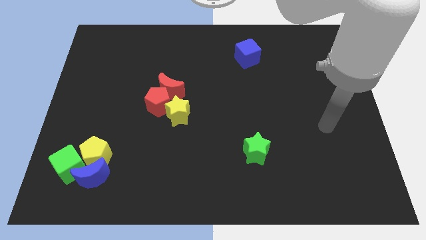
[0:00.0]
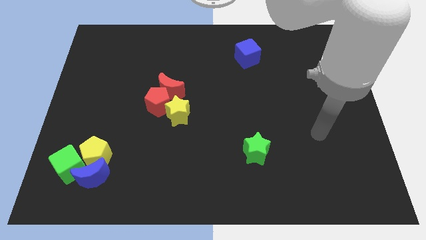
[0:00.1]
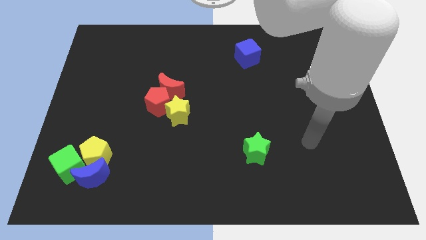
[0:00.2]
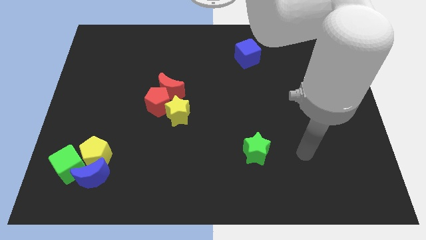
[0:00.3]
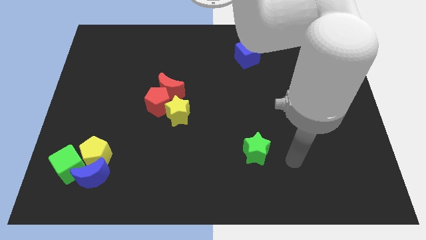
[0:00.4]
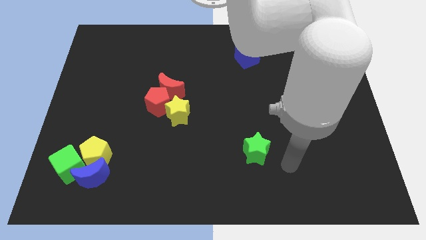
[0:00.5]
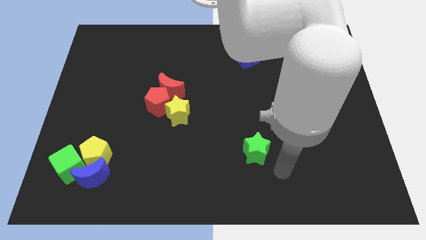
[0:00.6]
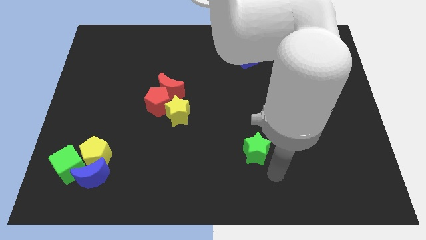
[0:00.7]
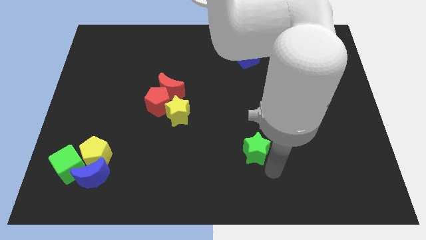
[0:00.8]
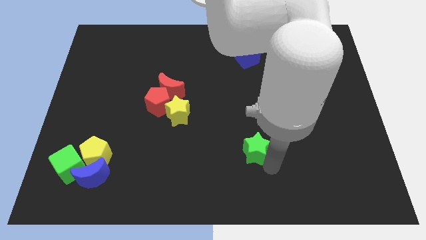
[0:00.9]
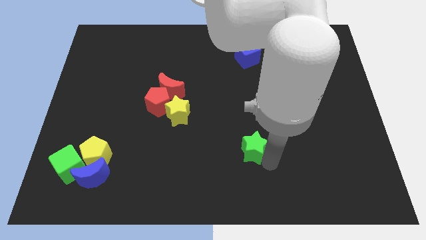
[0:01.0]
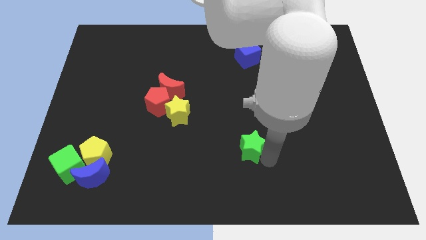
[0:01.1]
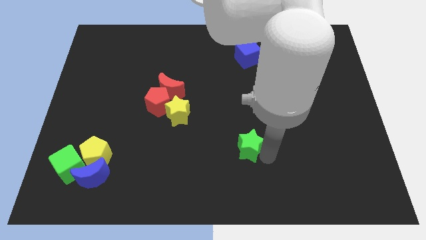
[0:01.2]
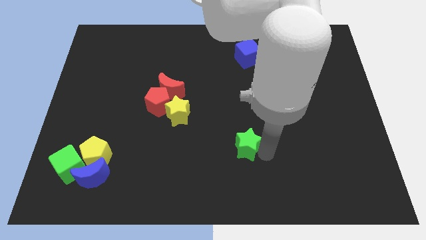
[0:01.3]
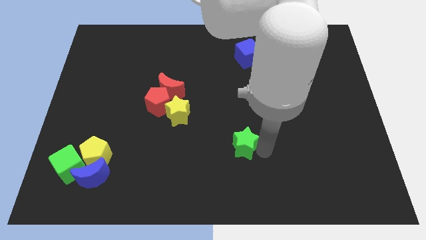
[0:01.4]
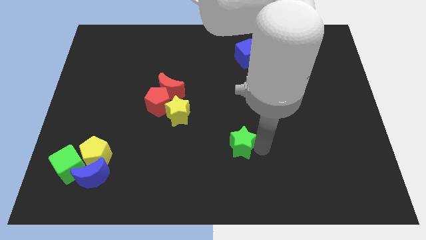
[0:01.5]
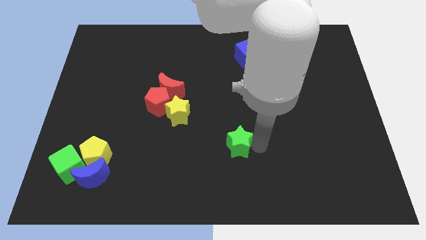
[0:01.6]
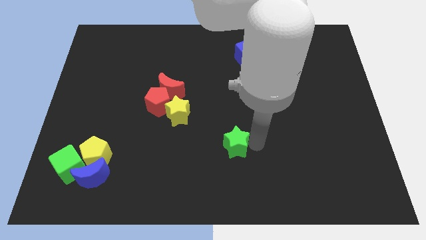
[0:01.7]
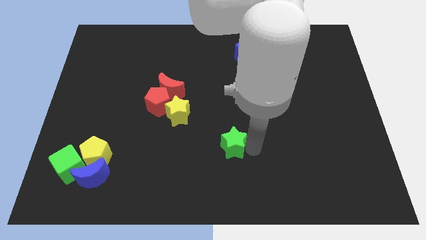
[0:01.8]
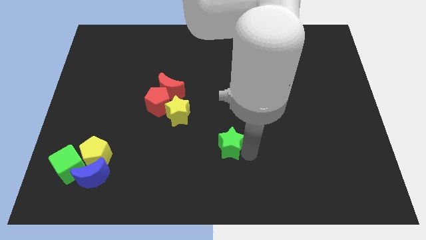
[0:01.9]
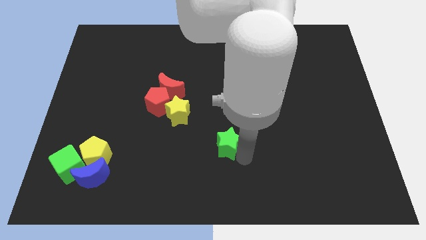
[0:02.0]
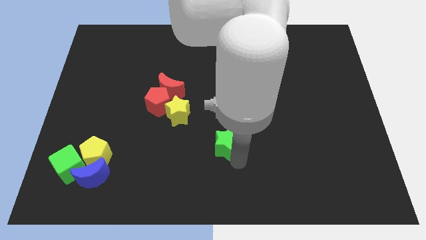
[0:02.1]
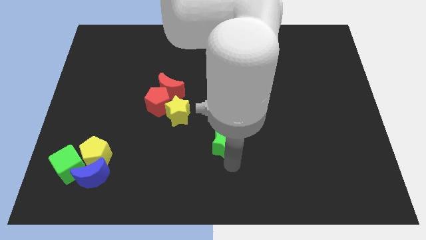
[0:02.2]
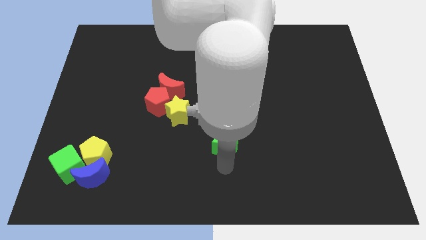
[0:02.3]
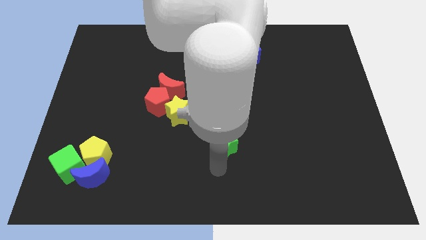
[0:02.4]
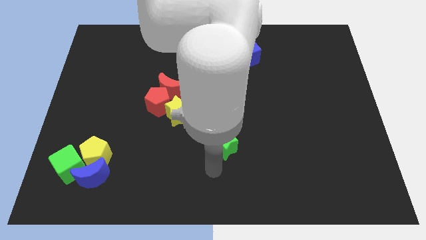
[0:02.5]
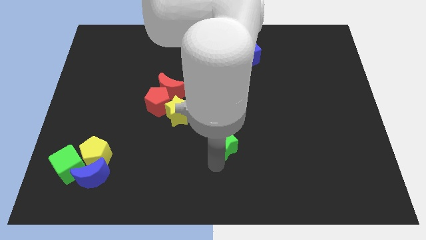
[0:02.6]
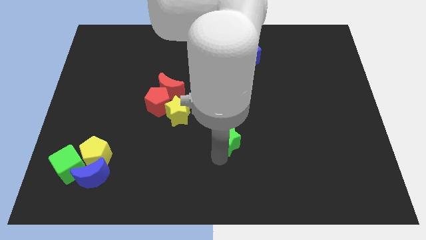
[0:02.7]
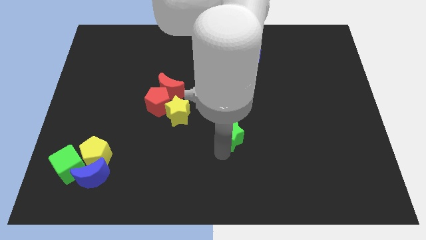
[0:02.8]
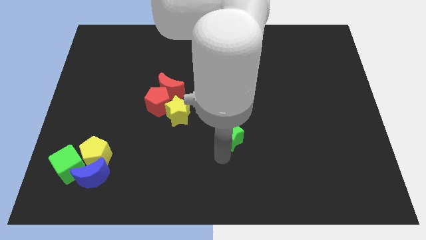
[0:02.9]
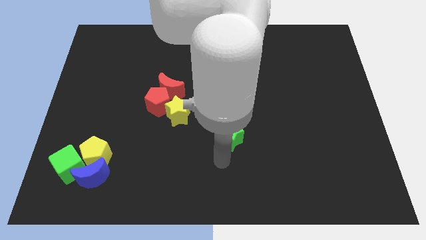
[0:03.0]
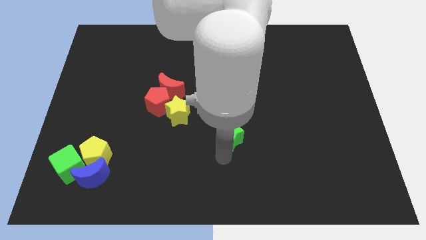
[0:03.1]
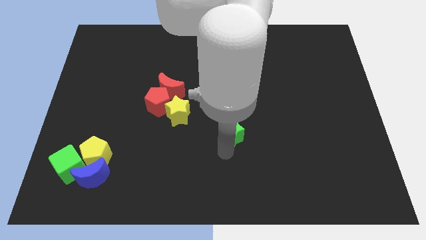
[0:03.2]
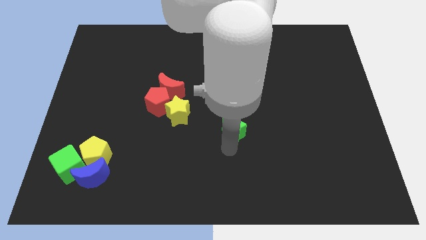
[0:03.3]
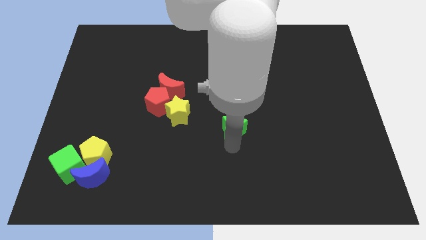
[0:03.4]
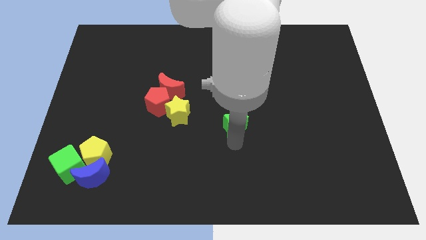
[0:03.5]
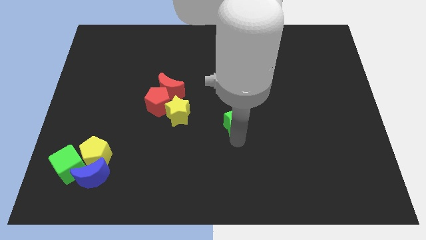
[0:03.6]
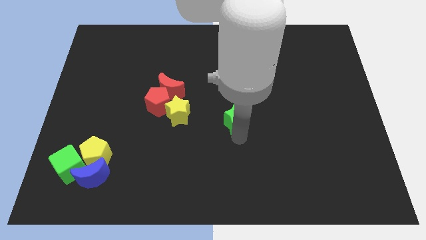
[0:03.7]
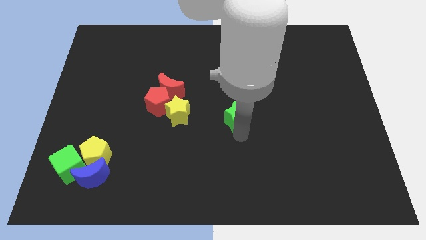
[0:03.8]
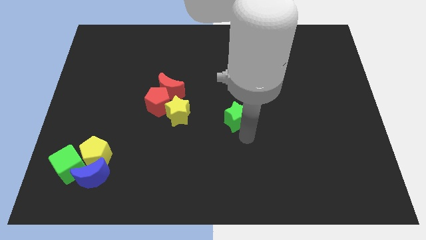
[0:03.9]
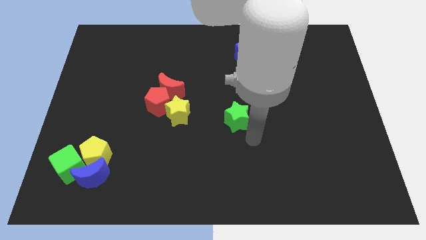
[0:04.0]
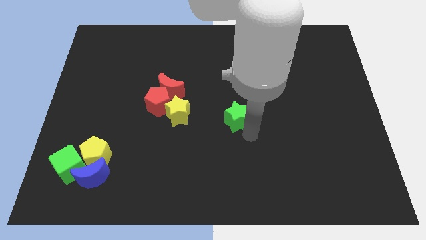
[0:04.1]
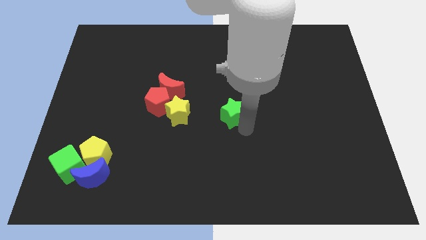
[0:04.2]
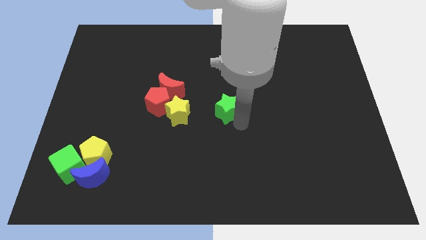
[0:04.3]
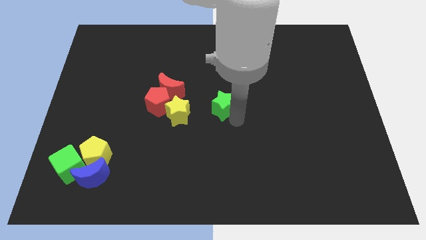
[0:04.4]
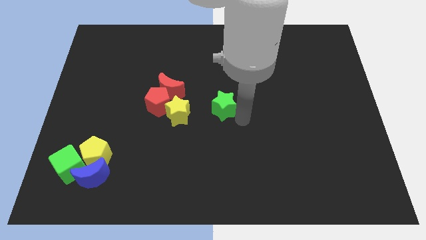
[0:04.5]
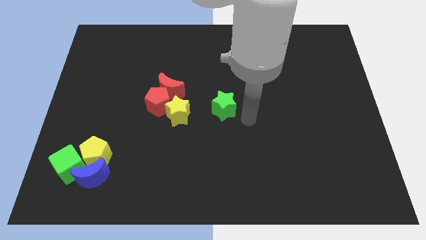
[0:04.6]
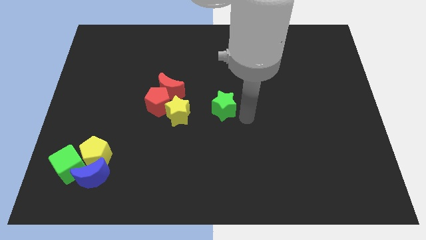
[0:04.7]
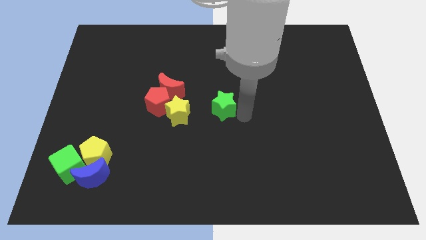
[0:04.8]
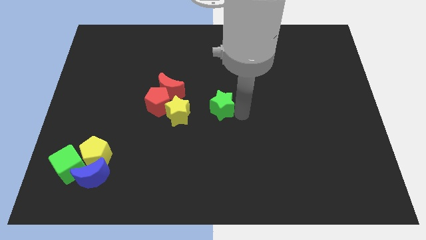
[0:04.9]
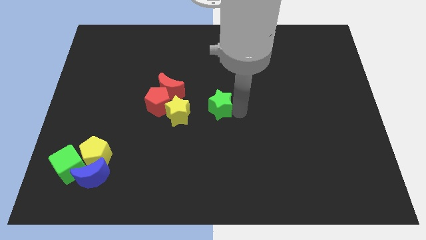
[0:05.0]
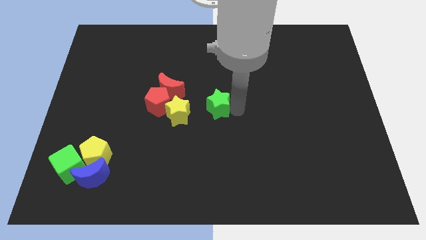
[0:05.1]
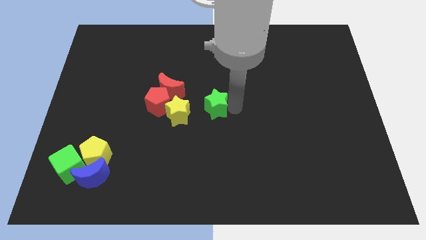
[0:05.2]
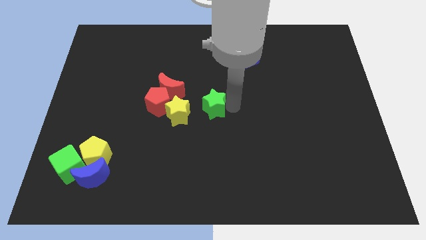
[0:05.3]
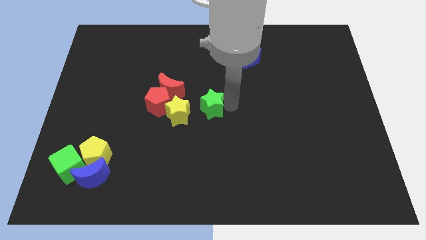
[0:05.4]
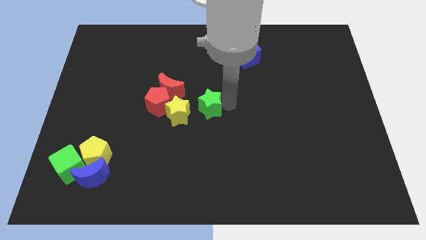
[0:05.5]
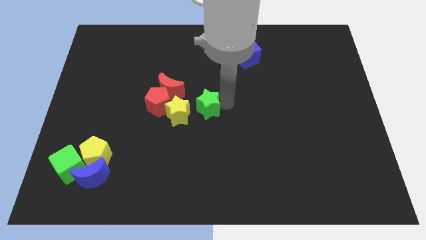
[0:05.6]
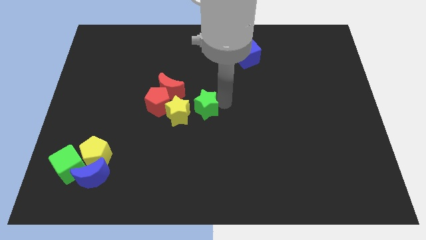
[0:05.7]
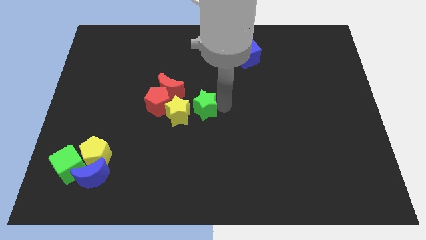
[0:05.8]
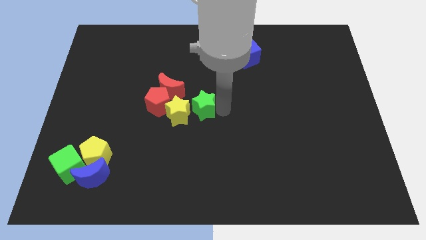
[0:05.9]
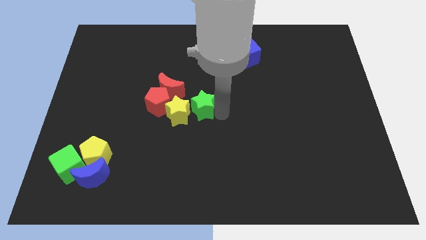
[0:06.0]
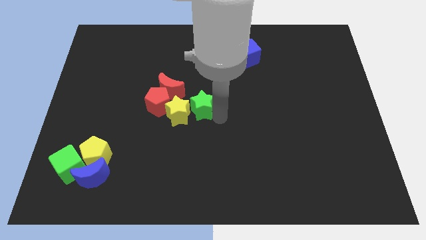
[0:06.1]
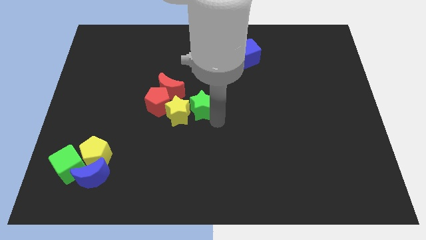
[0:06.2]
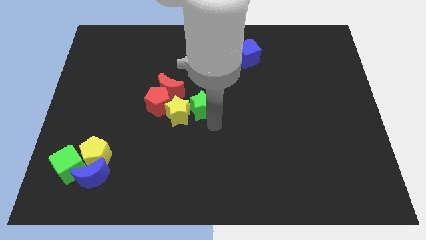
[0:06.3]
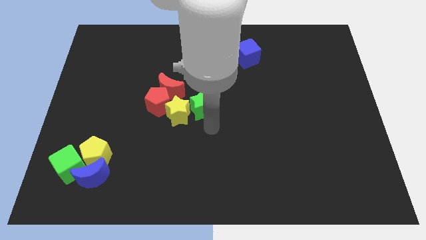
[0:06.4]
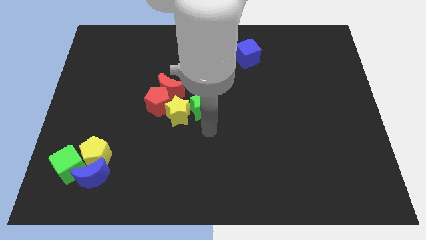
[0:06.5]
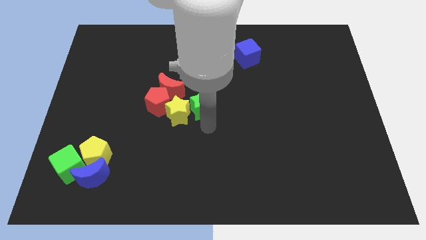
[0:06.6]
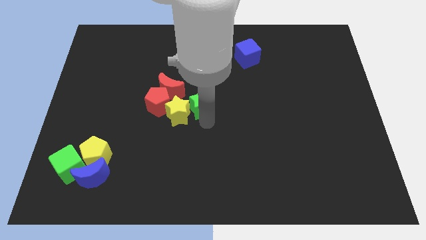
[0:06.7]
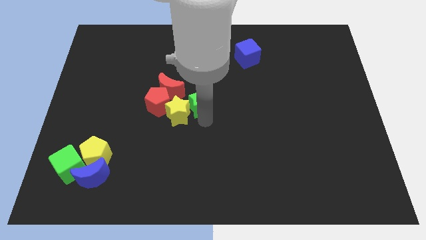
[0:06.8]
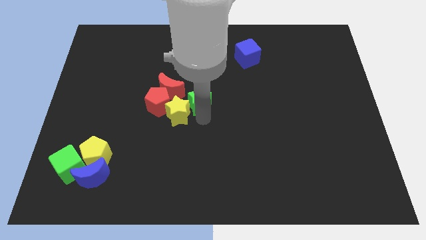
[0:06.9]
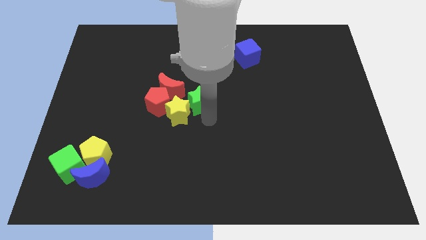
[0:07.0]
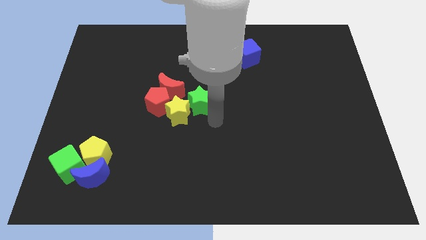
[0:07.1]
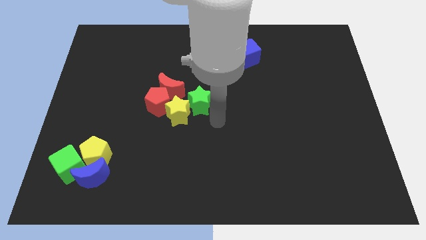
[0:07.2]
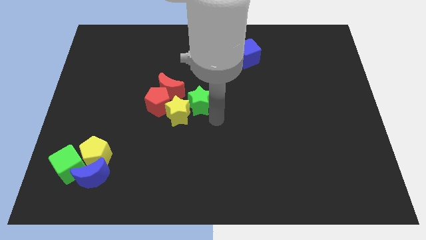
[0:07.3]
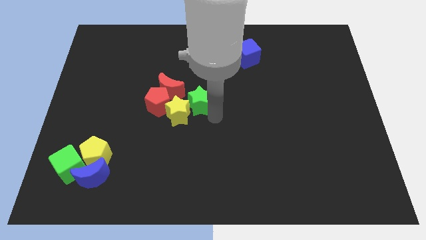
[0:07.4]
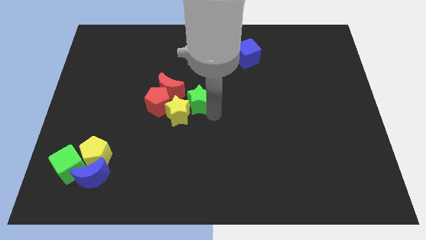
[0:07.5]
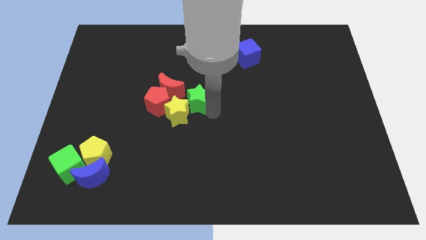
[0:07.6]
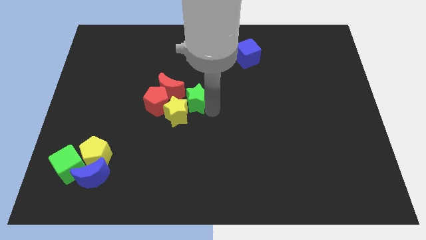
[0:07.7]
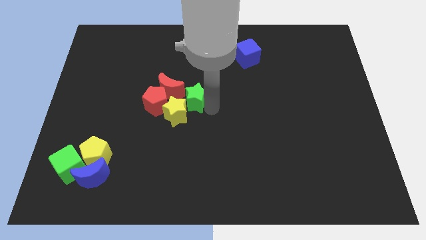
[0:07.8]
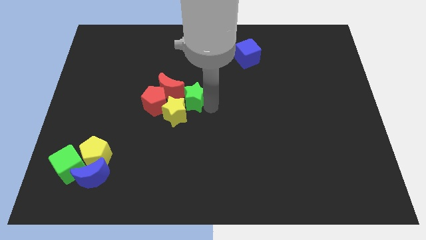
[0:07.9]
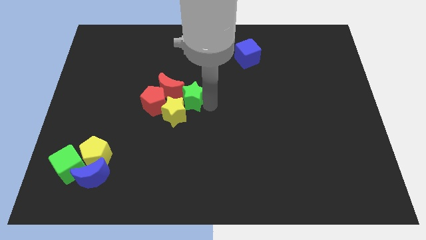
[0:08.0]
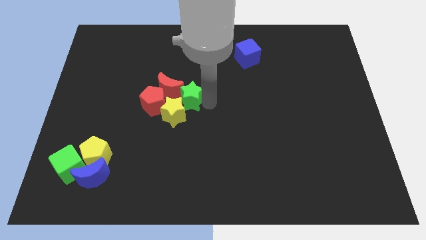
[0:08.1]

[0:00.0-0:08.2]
push the green star next to the red moon
